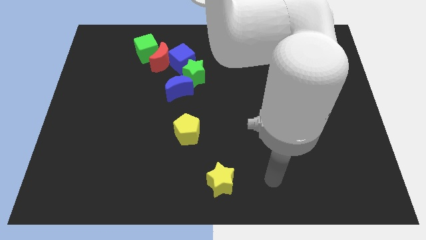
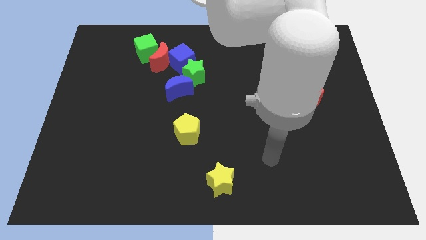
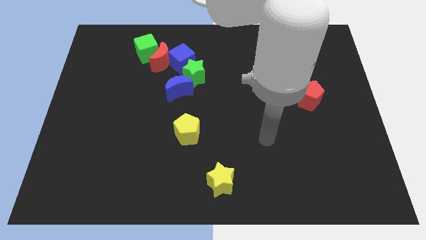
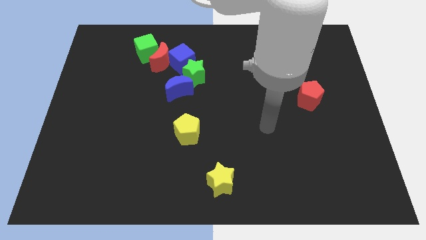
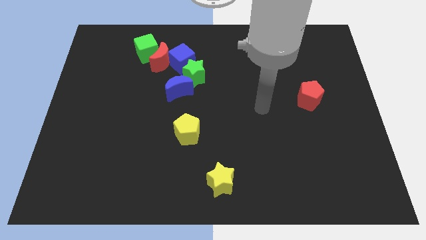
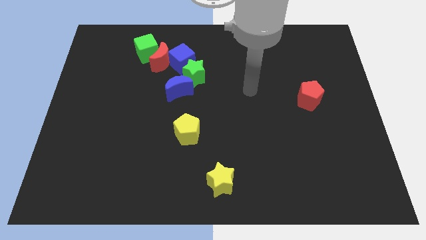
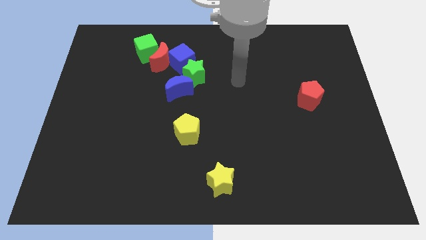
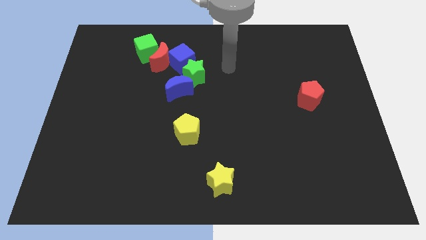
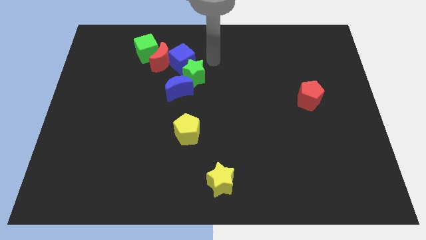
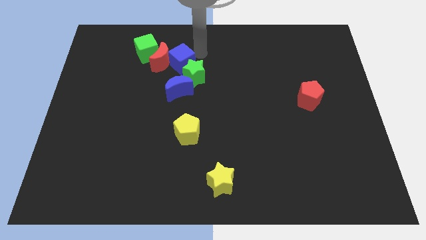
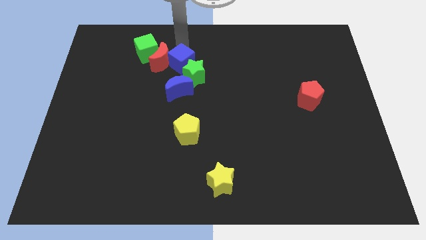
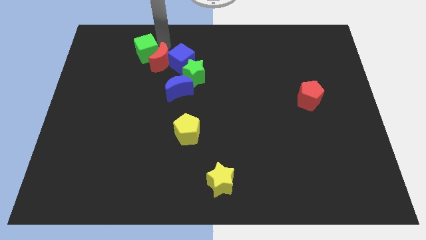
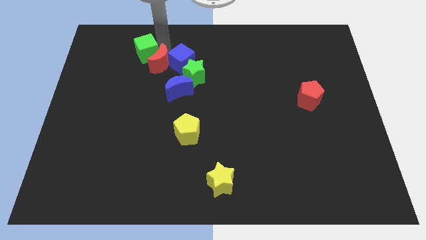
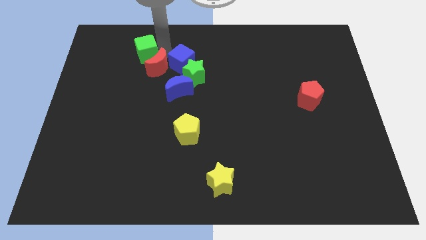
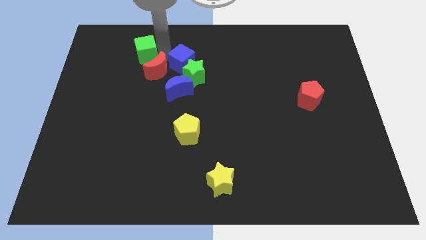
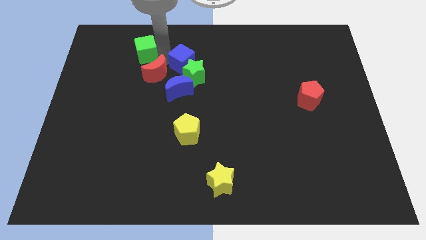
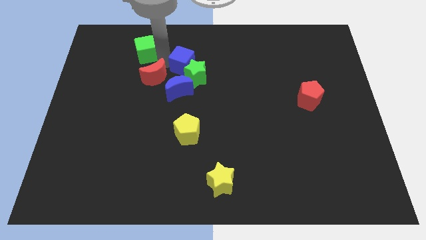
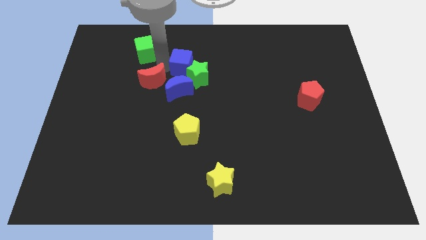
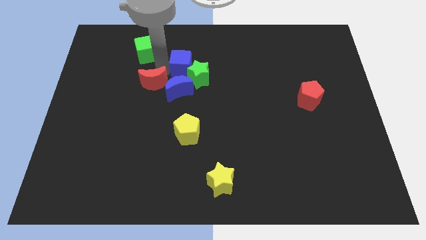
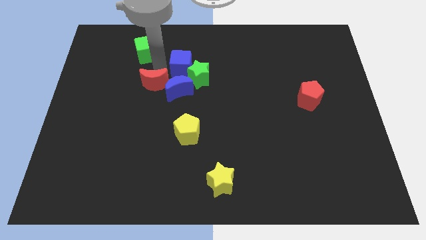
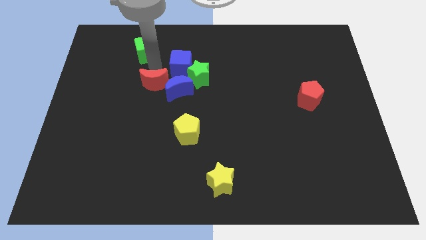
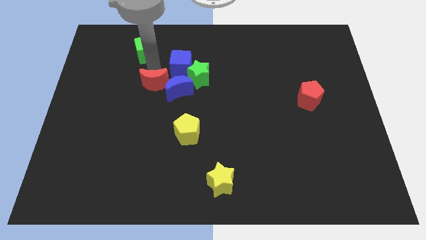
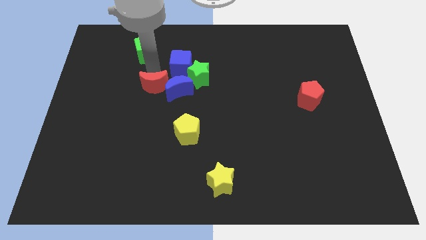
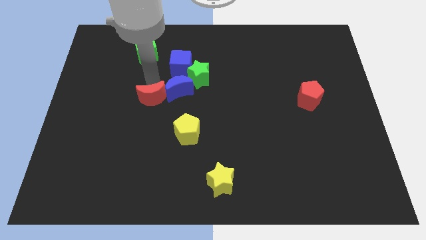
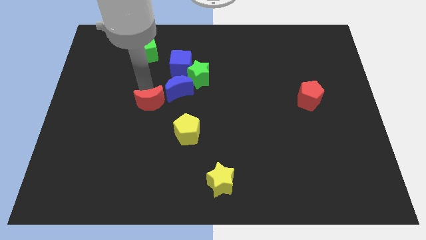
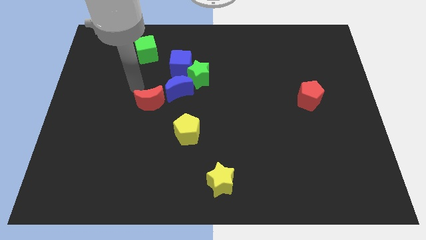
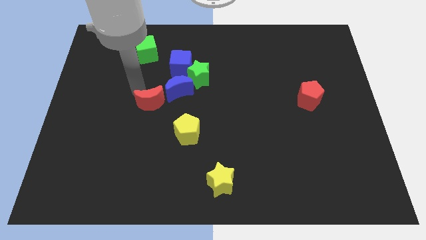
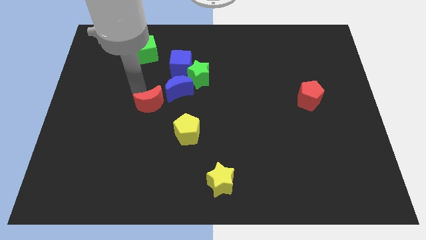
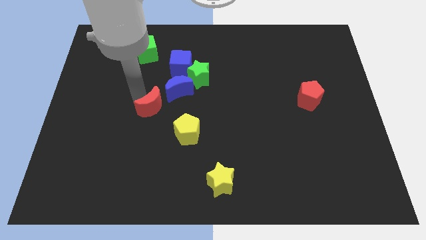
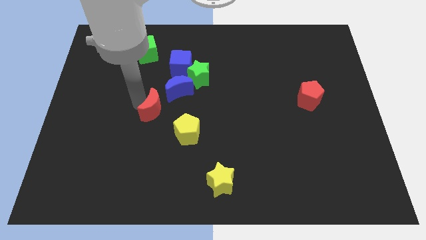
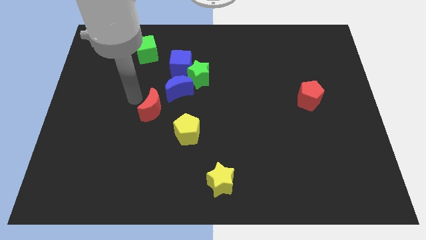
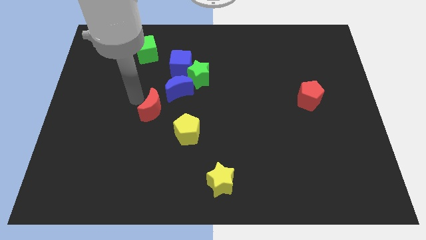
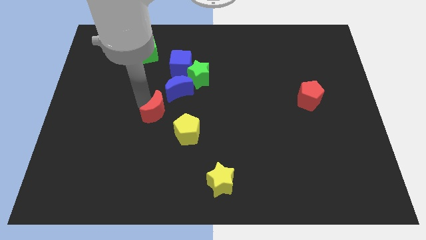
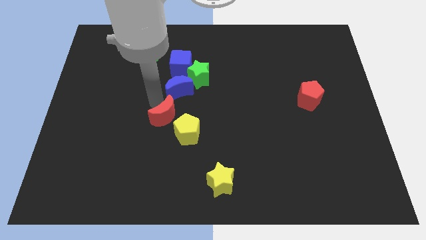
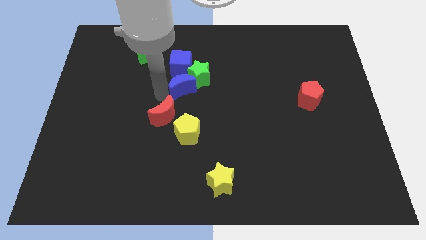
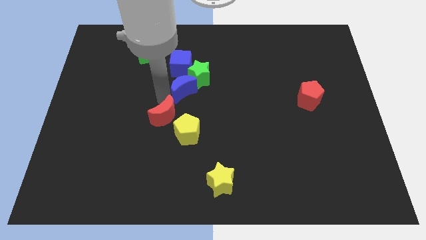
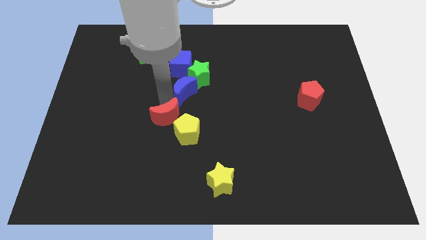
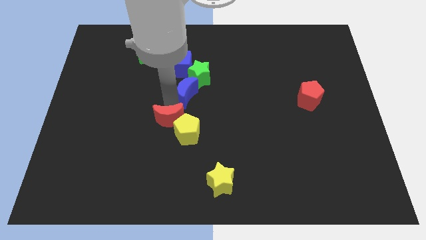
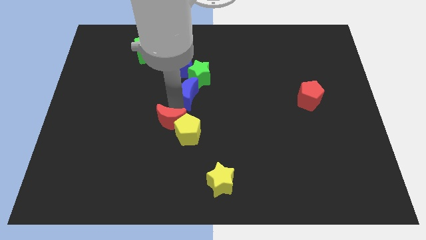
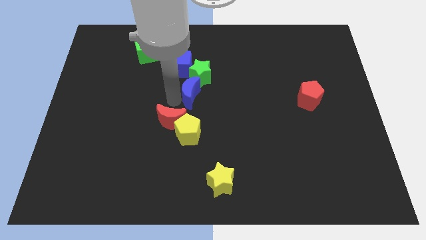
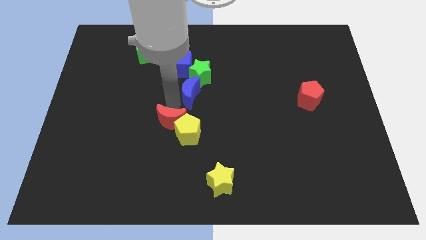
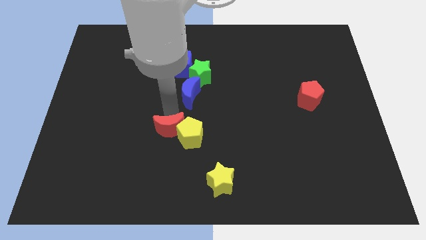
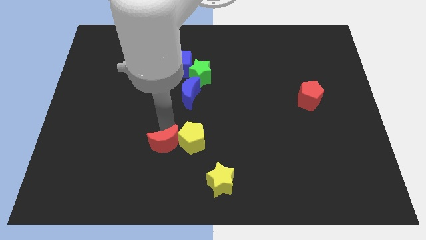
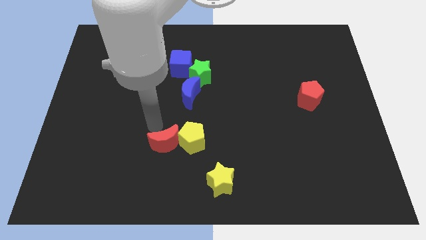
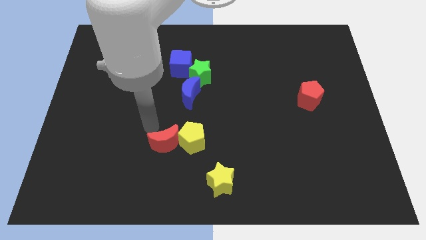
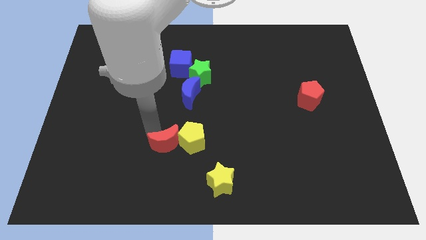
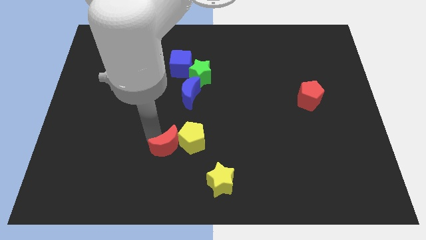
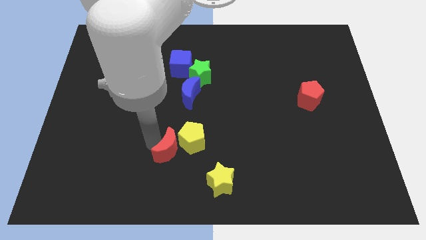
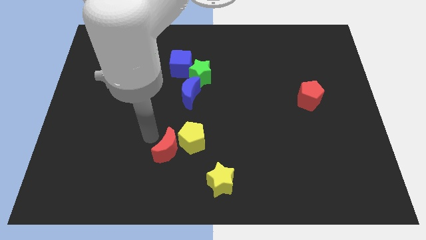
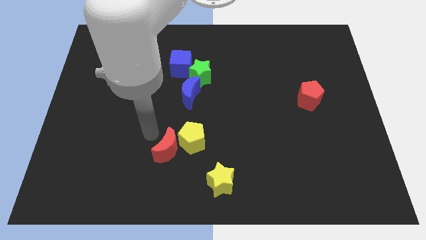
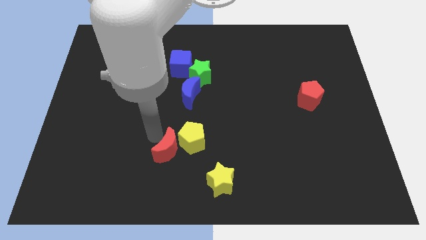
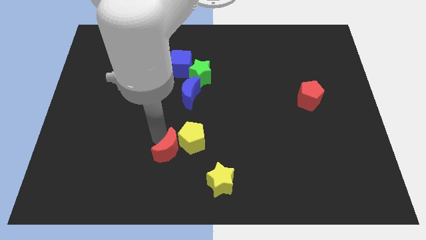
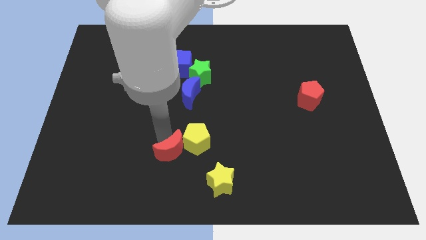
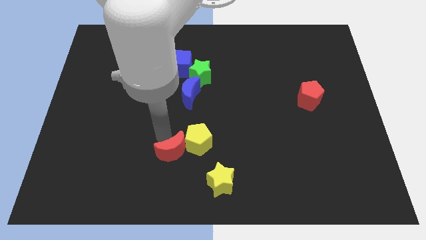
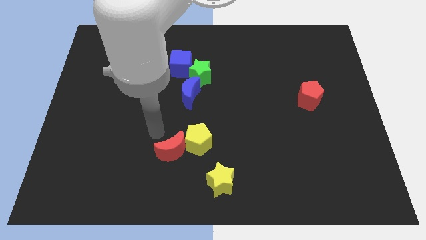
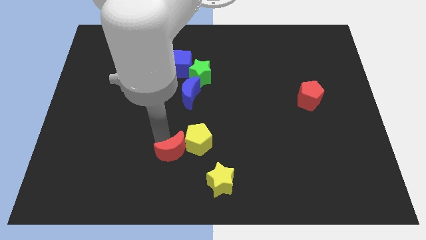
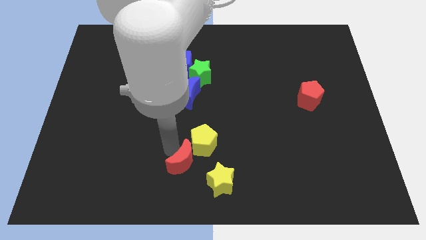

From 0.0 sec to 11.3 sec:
slide the red moon to the bottom side

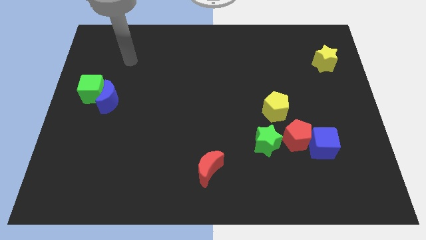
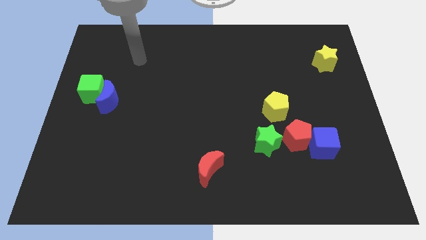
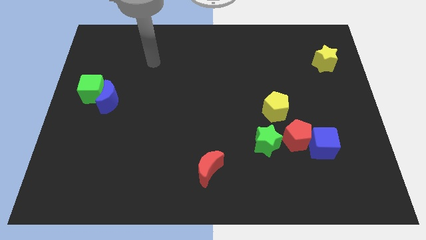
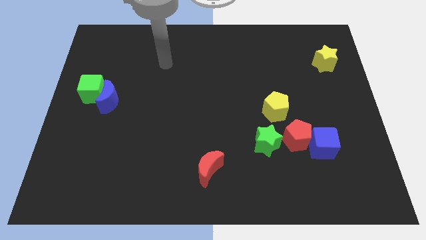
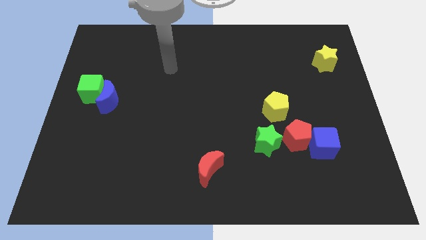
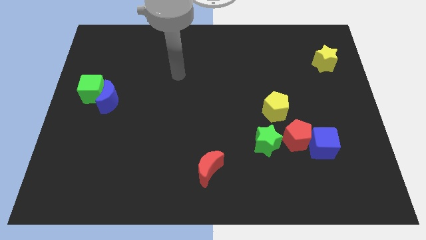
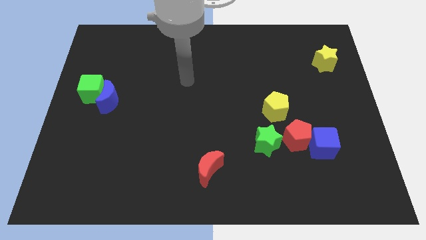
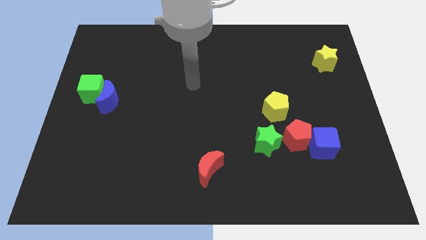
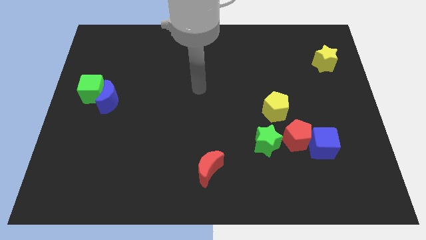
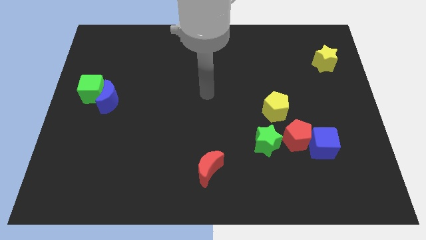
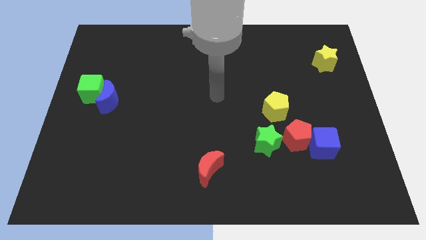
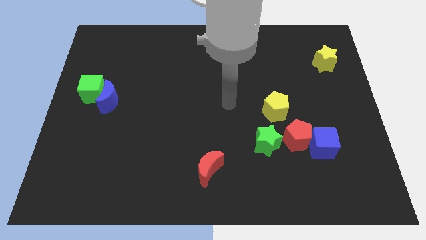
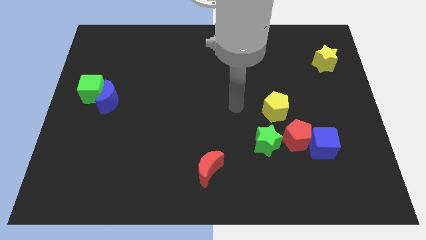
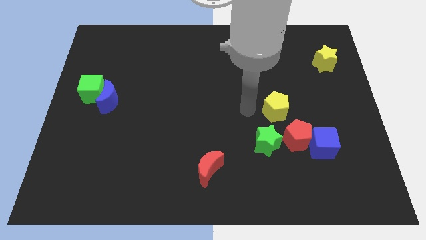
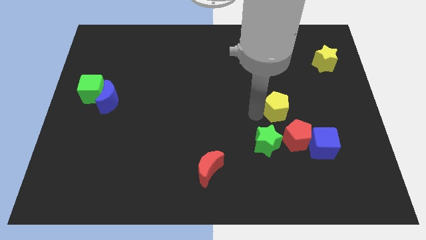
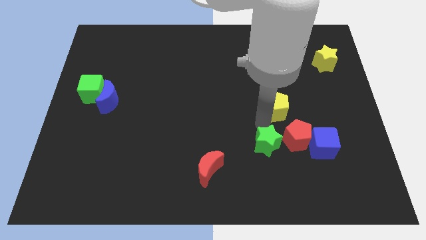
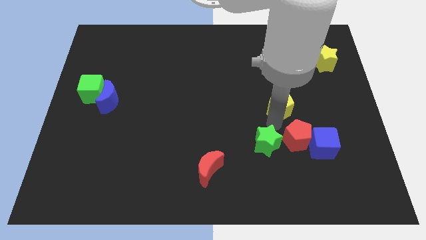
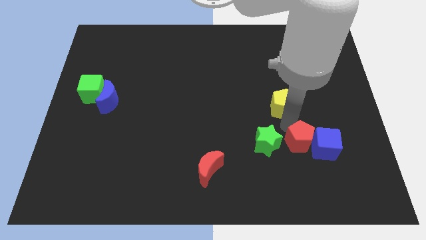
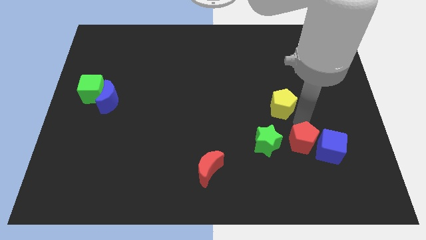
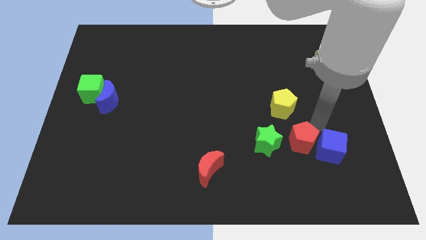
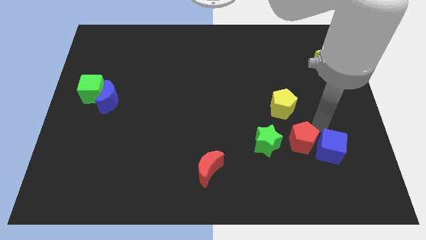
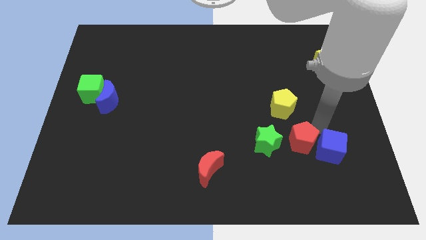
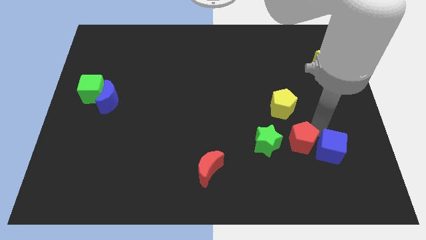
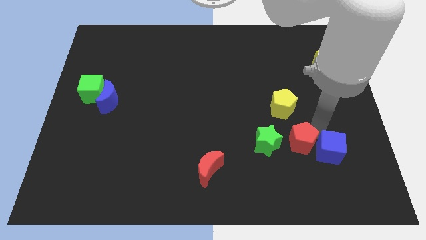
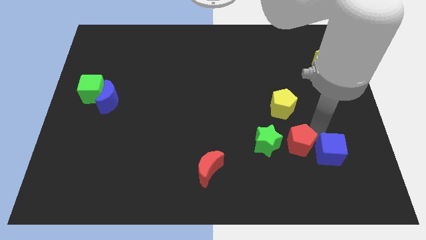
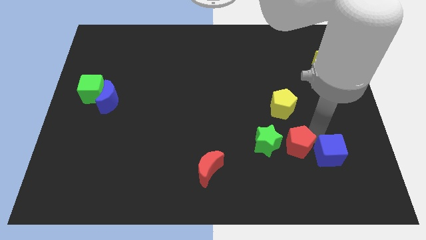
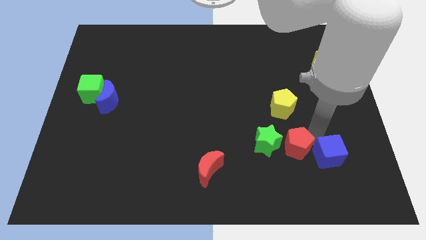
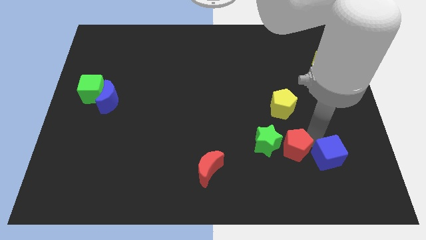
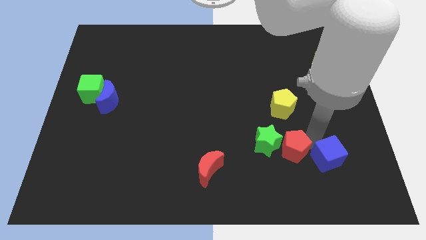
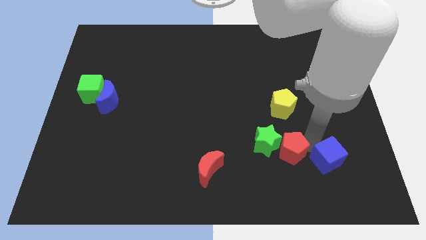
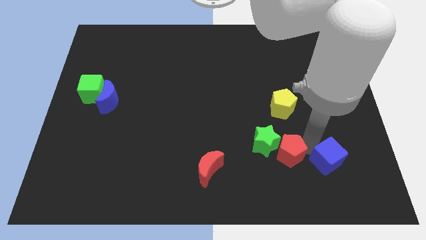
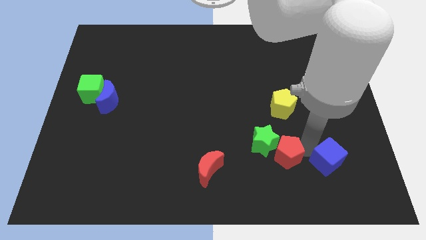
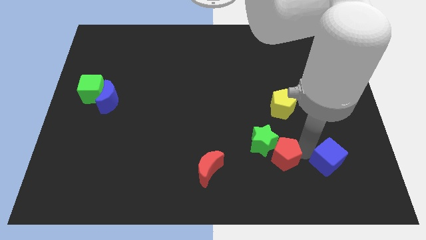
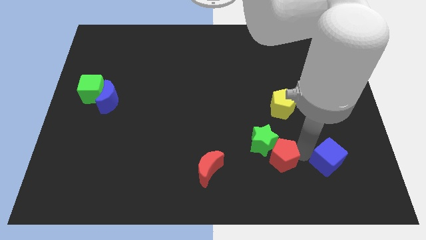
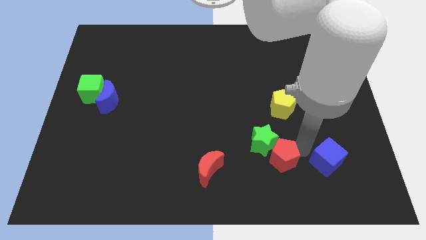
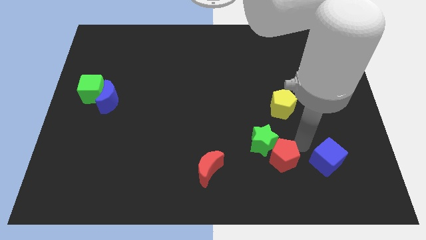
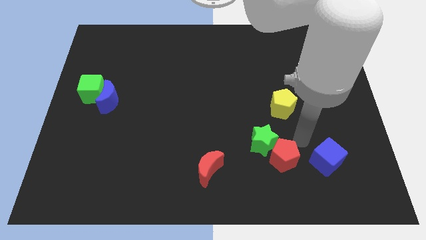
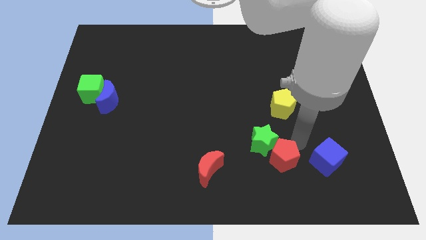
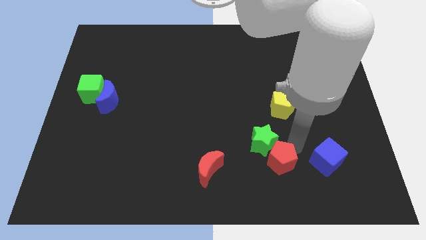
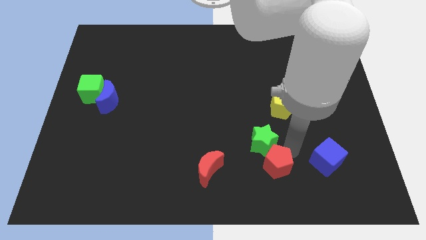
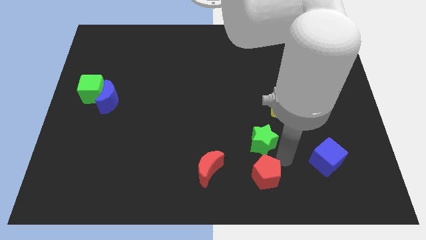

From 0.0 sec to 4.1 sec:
slide the red pentagon to the bottom
